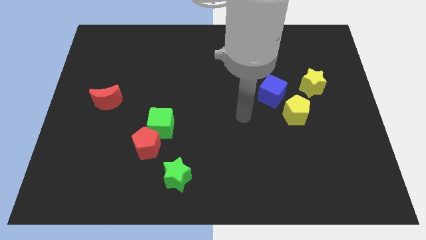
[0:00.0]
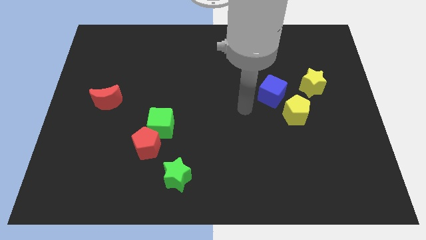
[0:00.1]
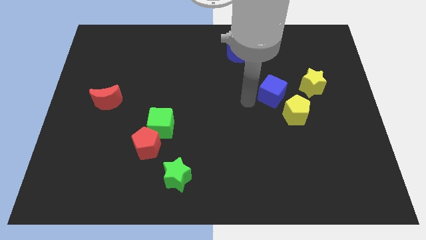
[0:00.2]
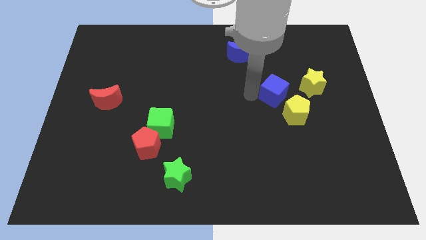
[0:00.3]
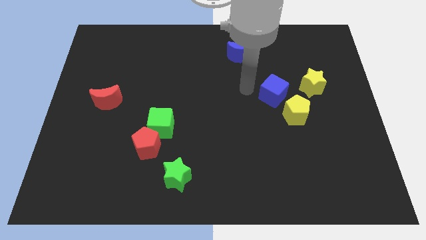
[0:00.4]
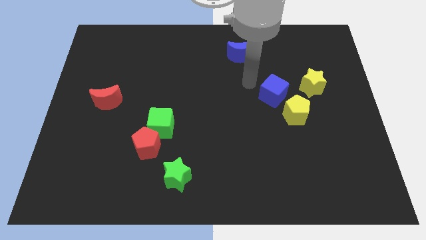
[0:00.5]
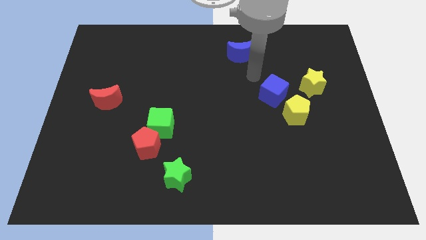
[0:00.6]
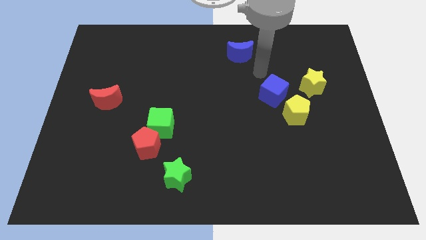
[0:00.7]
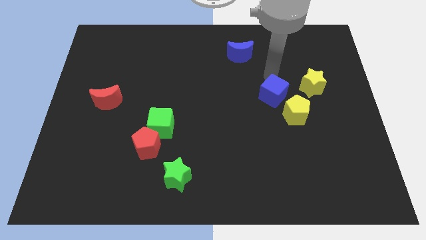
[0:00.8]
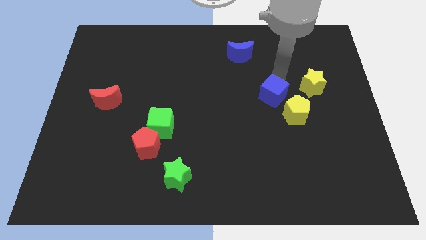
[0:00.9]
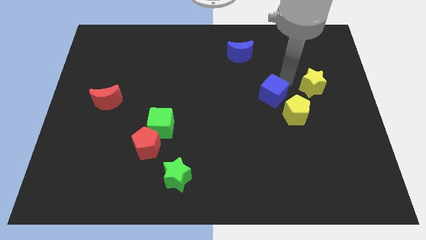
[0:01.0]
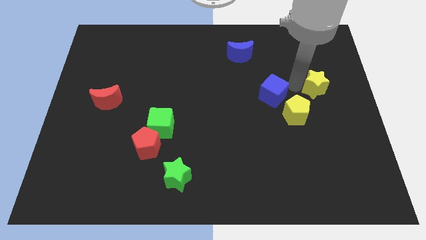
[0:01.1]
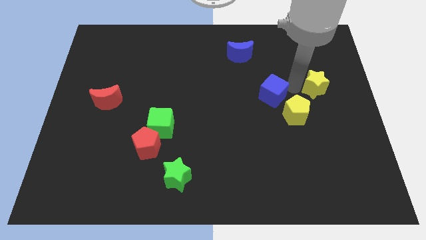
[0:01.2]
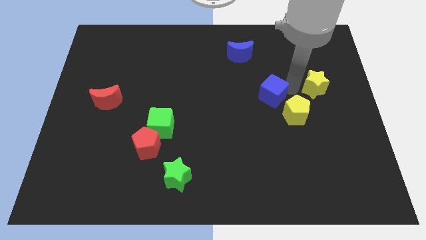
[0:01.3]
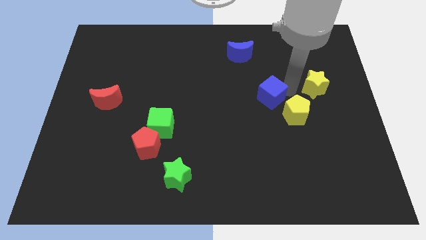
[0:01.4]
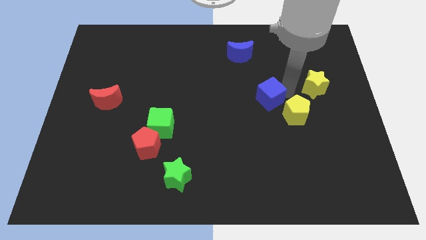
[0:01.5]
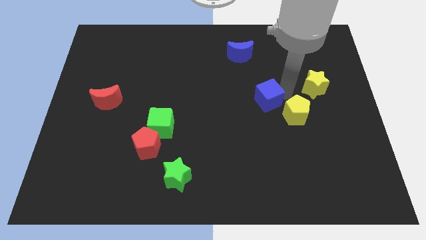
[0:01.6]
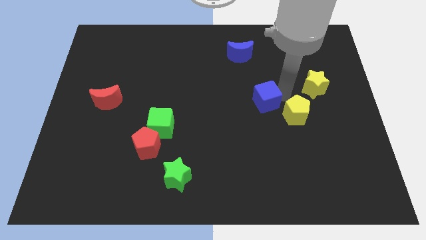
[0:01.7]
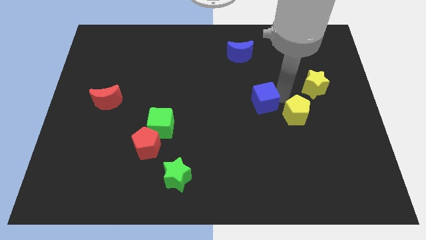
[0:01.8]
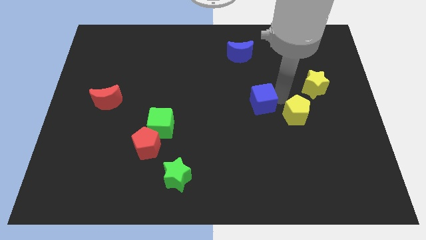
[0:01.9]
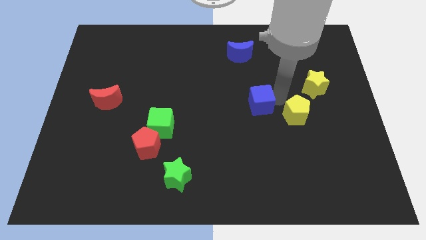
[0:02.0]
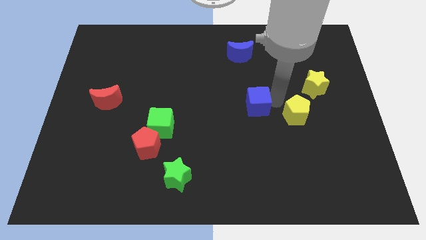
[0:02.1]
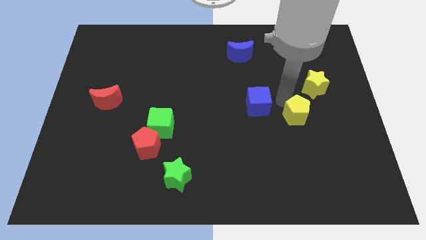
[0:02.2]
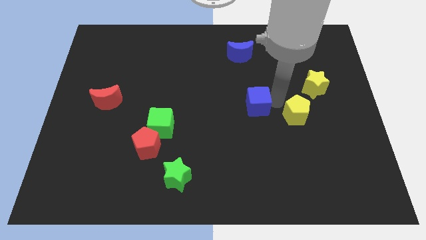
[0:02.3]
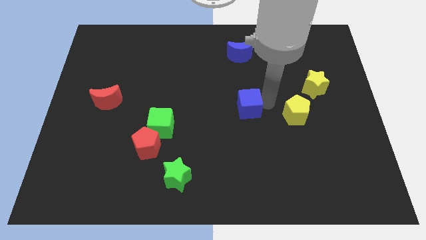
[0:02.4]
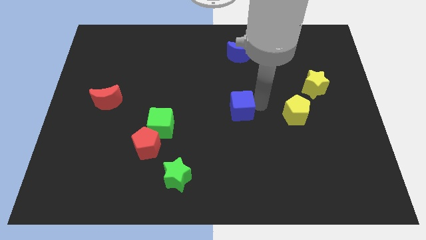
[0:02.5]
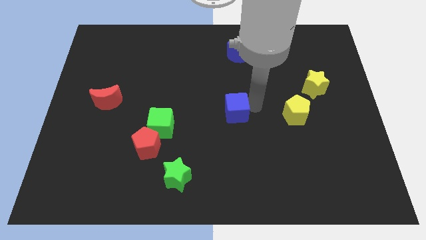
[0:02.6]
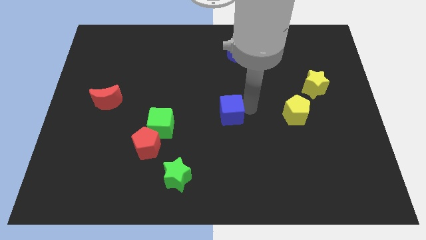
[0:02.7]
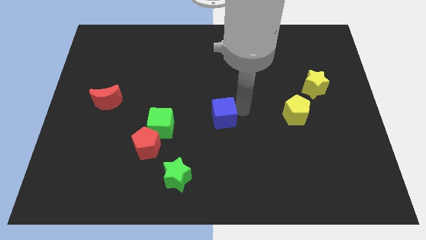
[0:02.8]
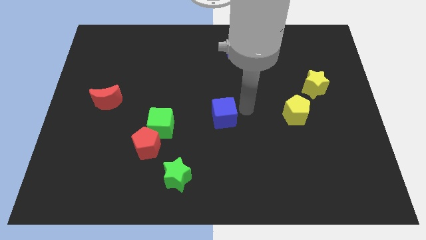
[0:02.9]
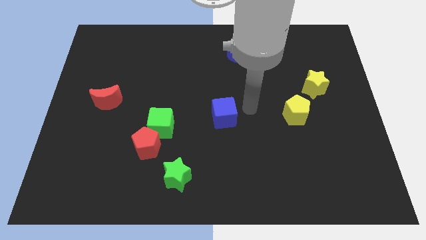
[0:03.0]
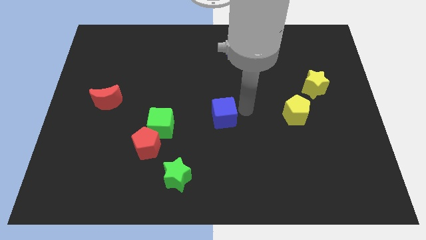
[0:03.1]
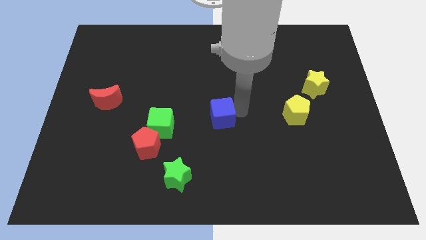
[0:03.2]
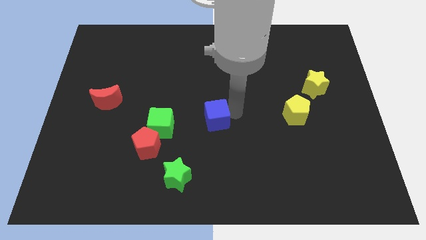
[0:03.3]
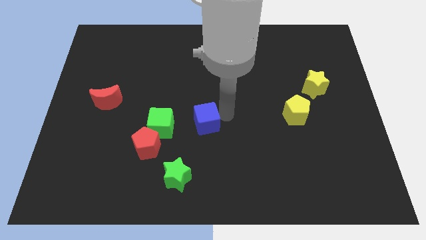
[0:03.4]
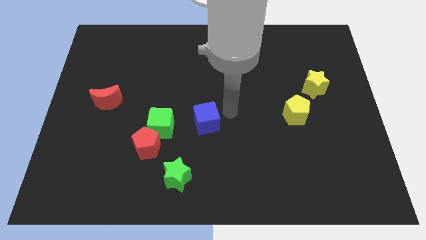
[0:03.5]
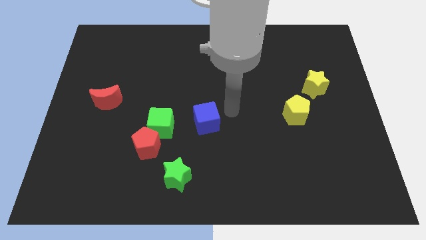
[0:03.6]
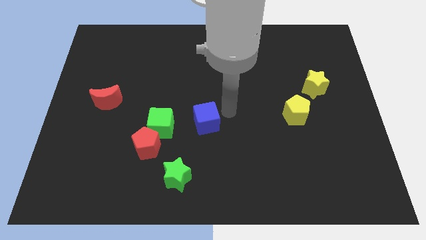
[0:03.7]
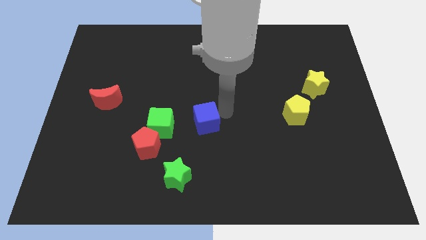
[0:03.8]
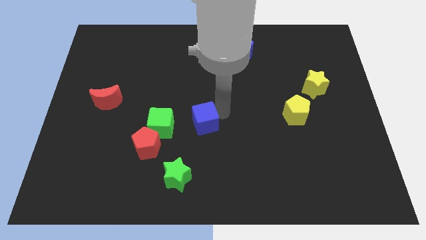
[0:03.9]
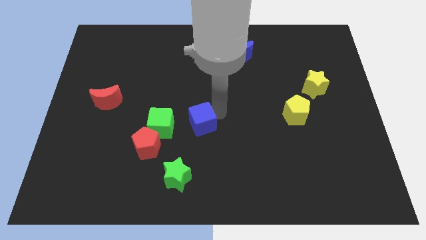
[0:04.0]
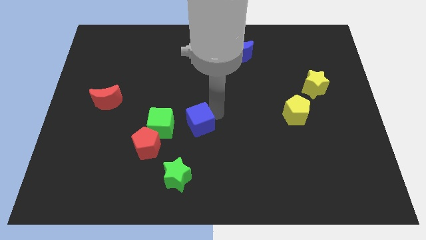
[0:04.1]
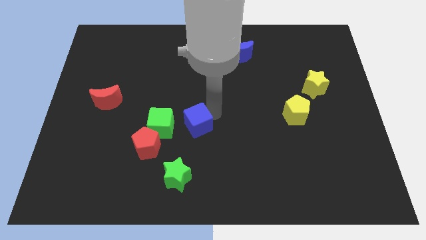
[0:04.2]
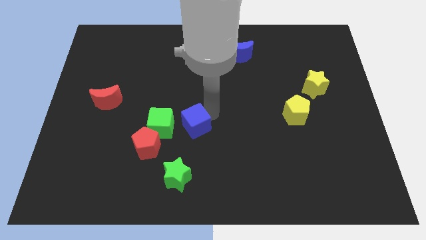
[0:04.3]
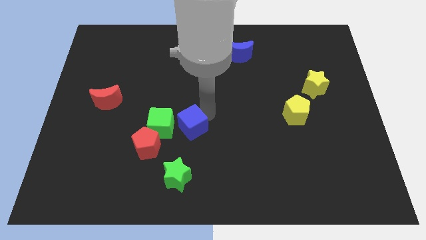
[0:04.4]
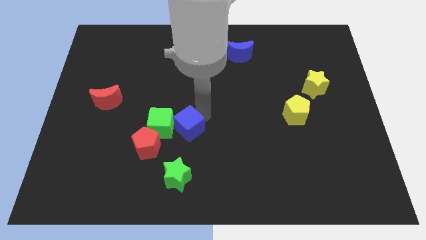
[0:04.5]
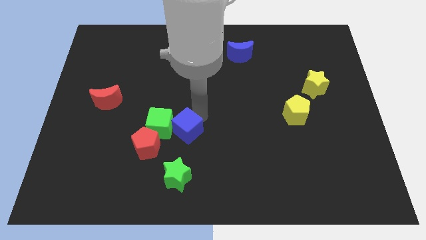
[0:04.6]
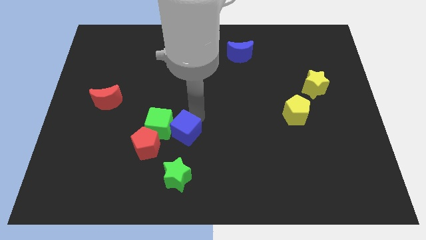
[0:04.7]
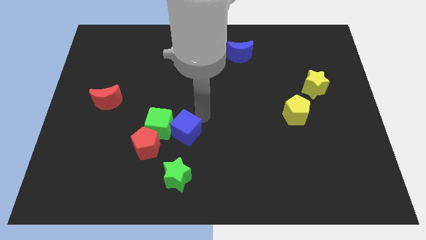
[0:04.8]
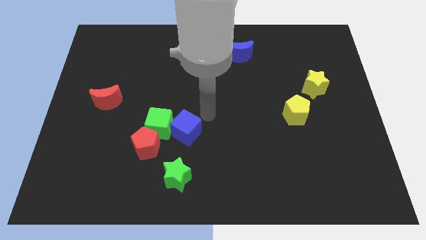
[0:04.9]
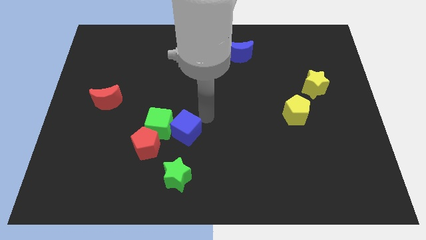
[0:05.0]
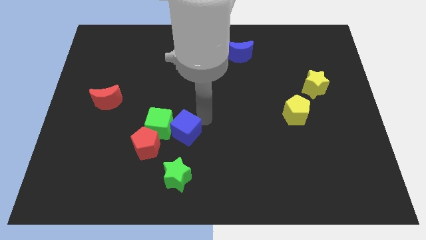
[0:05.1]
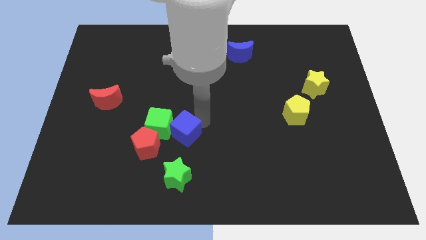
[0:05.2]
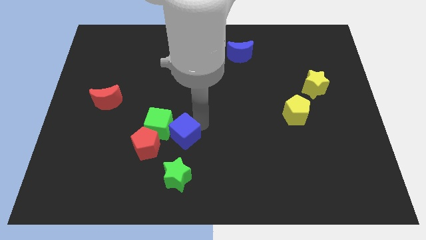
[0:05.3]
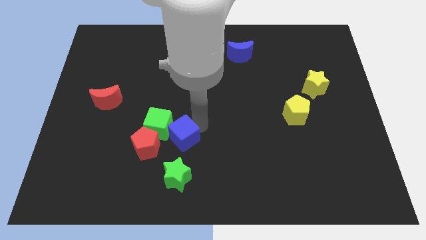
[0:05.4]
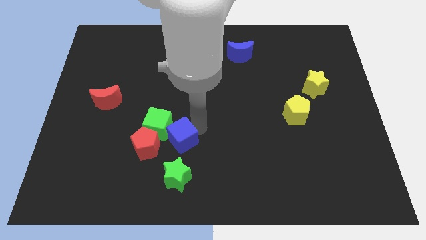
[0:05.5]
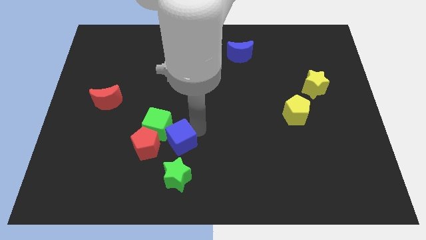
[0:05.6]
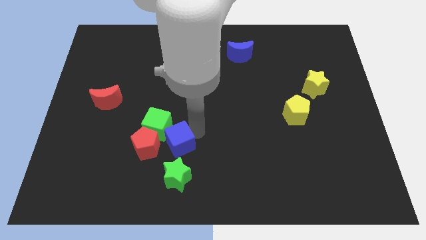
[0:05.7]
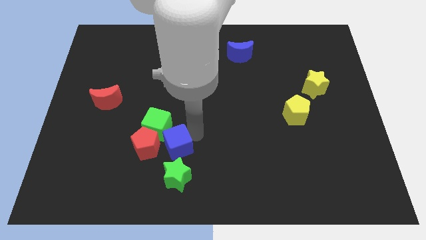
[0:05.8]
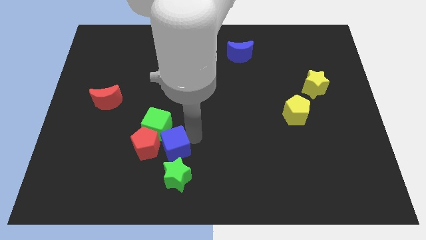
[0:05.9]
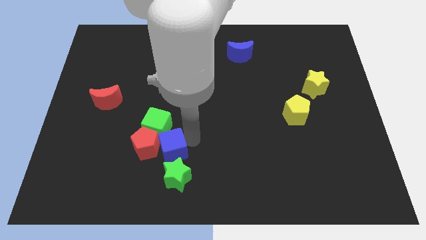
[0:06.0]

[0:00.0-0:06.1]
push the blue cube next to the red pentagon

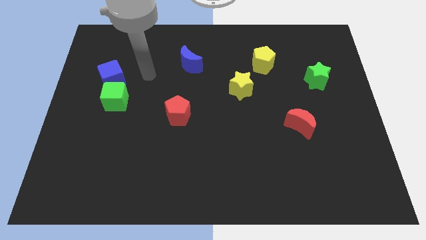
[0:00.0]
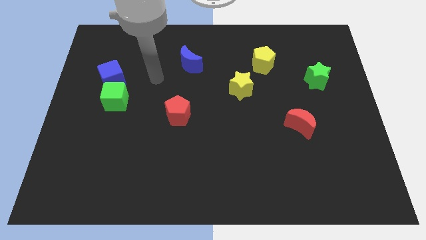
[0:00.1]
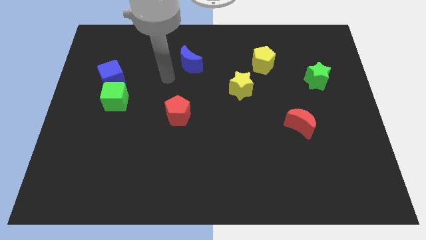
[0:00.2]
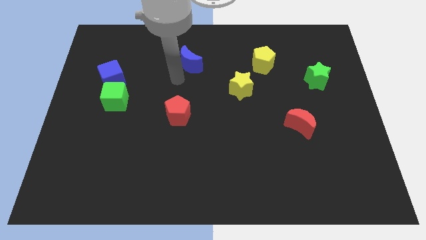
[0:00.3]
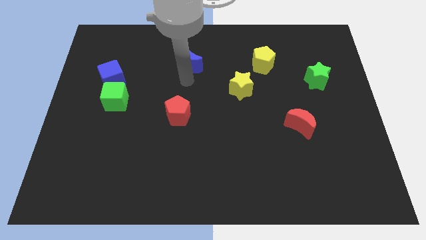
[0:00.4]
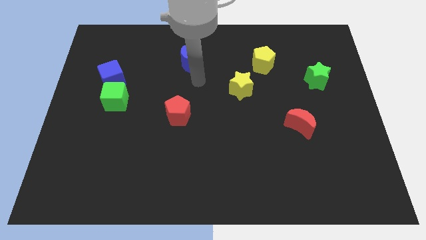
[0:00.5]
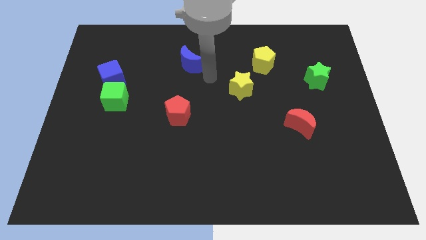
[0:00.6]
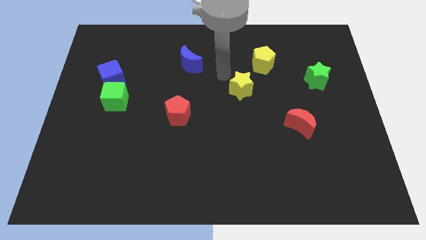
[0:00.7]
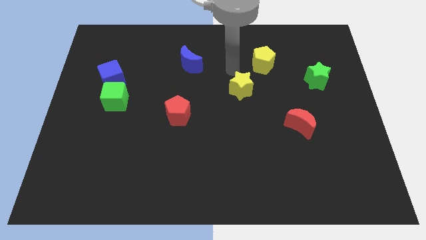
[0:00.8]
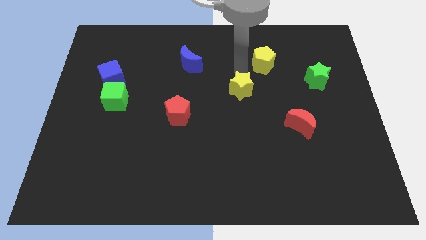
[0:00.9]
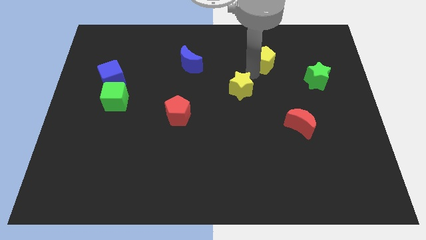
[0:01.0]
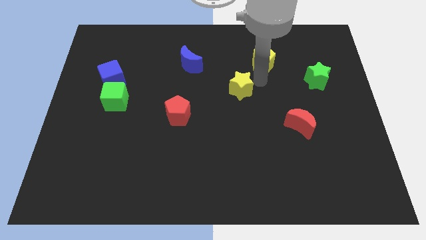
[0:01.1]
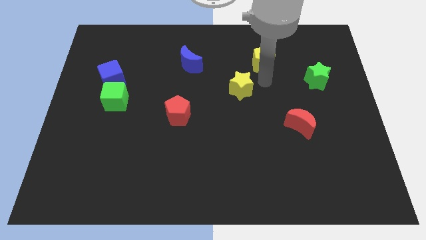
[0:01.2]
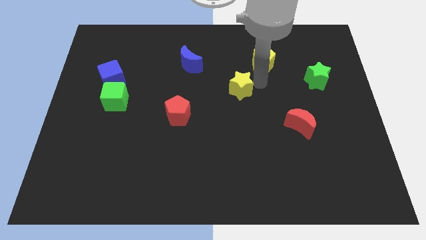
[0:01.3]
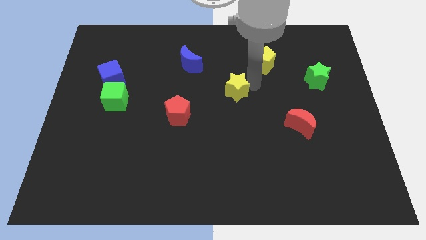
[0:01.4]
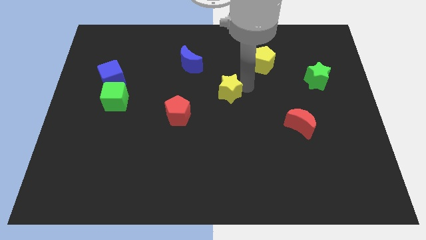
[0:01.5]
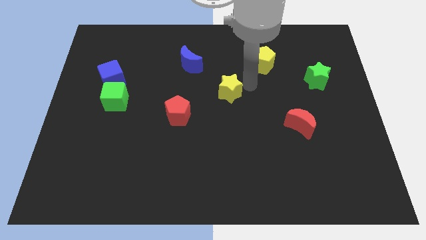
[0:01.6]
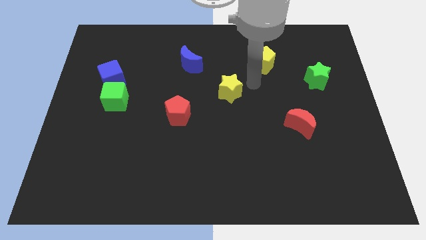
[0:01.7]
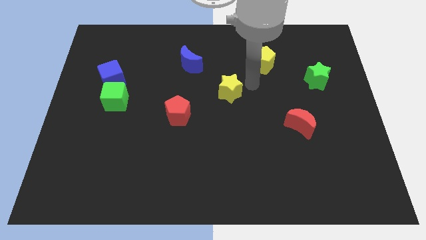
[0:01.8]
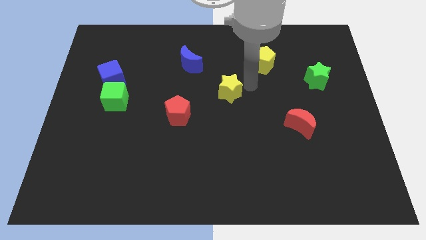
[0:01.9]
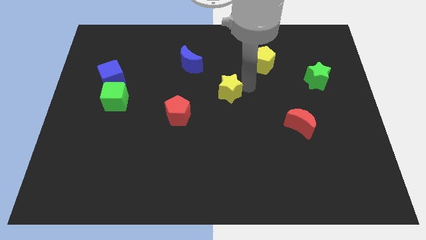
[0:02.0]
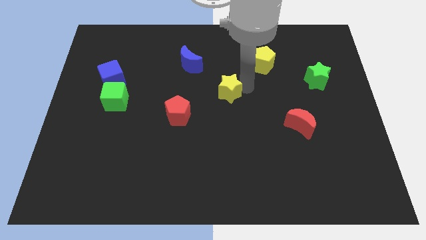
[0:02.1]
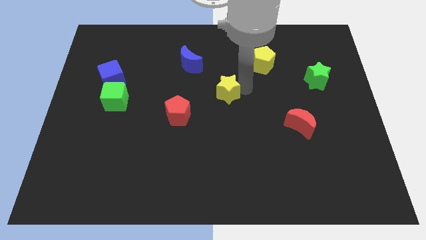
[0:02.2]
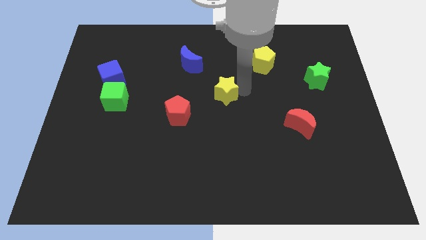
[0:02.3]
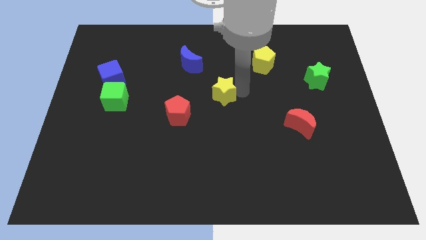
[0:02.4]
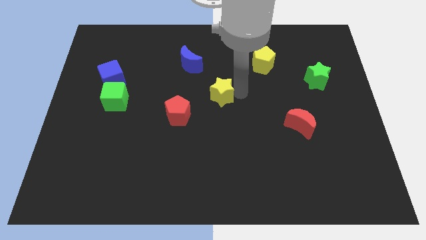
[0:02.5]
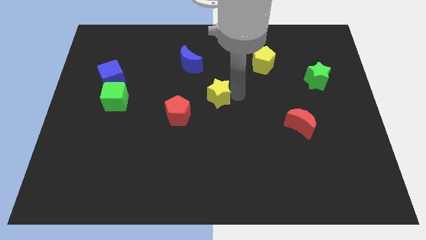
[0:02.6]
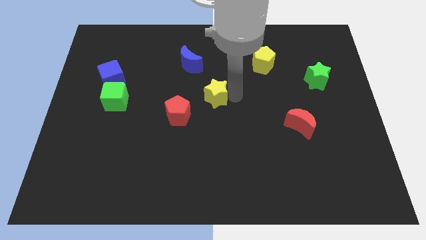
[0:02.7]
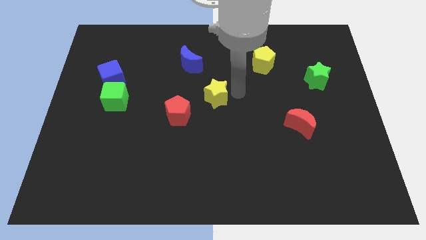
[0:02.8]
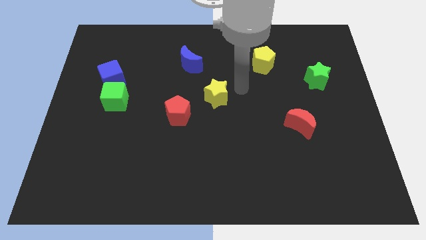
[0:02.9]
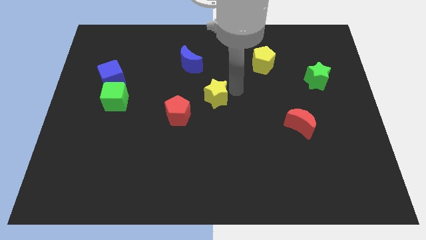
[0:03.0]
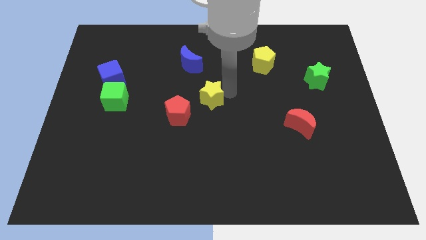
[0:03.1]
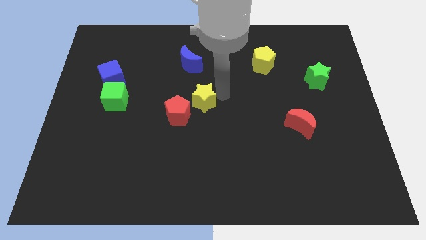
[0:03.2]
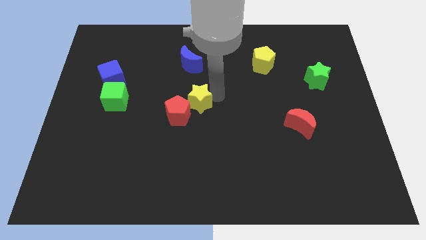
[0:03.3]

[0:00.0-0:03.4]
move the yellow star to the red pentagon
